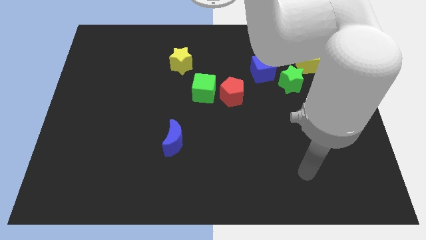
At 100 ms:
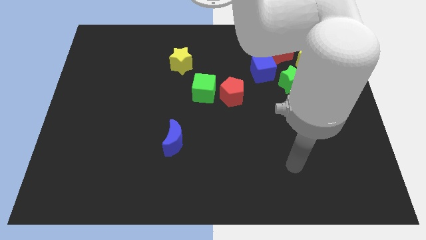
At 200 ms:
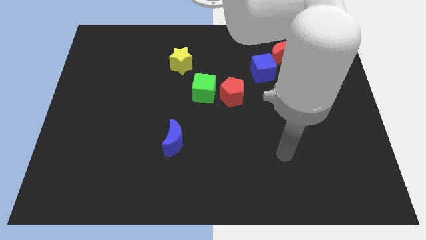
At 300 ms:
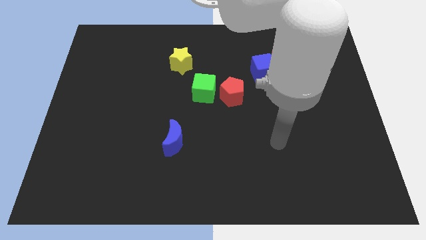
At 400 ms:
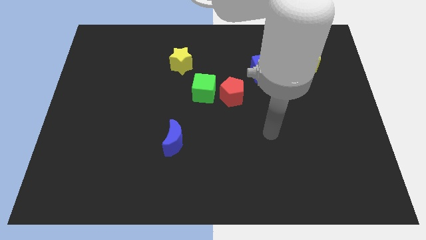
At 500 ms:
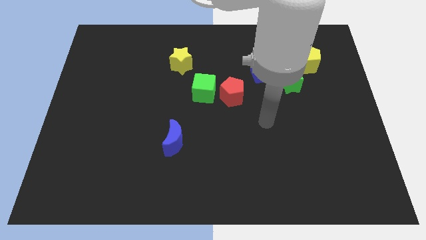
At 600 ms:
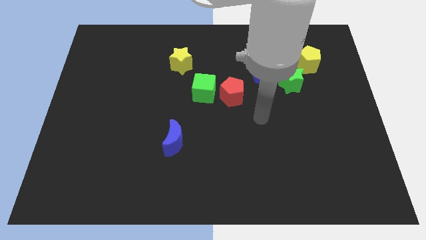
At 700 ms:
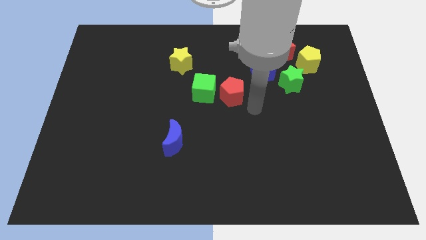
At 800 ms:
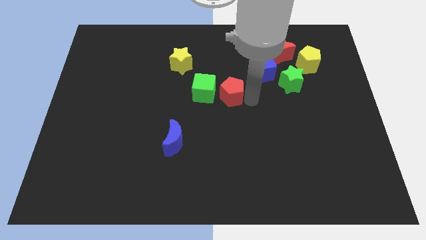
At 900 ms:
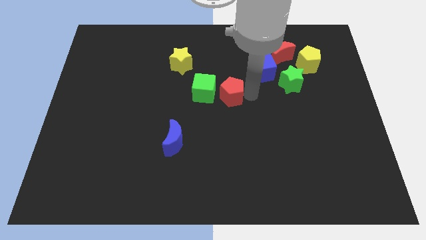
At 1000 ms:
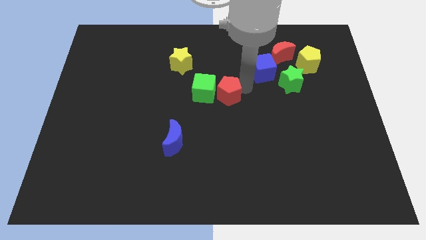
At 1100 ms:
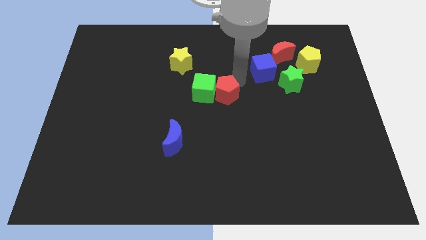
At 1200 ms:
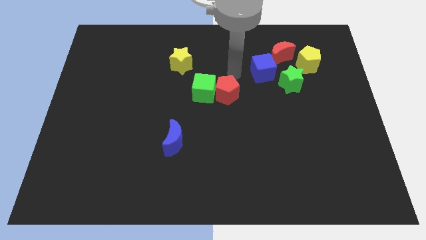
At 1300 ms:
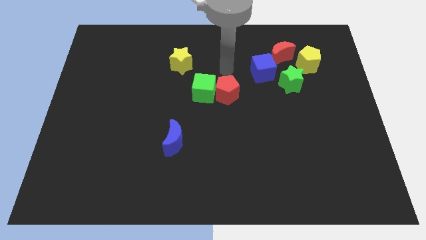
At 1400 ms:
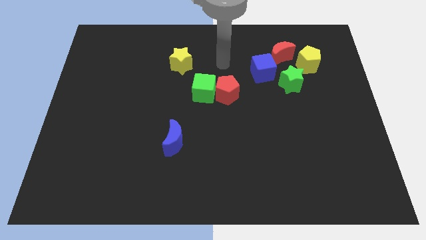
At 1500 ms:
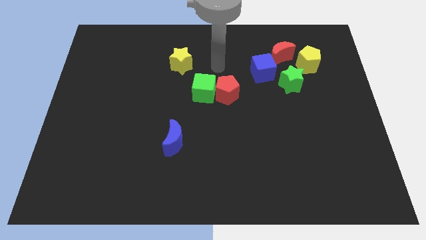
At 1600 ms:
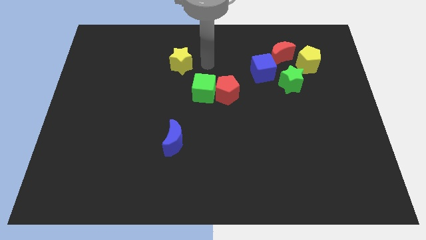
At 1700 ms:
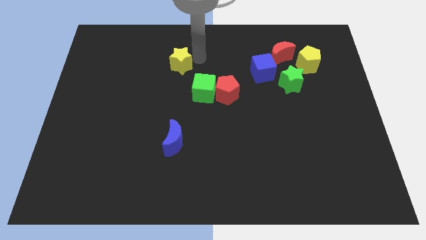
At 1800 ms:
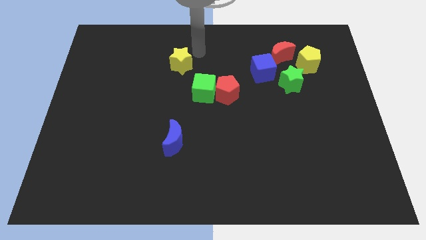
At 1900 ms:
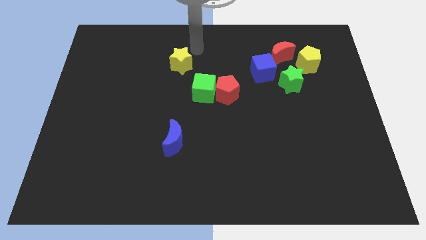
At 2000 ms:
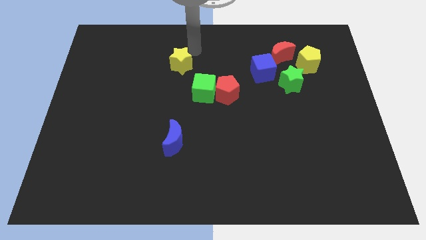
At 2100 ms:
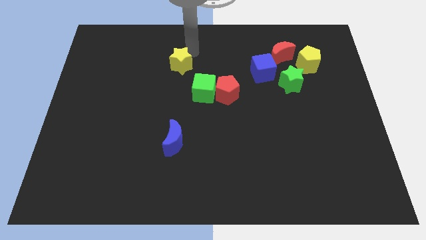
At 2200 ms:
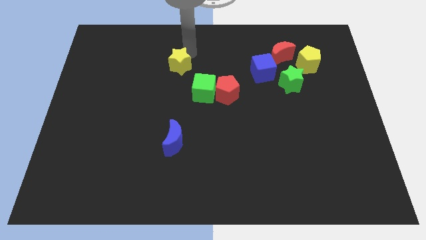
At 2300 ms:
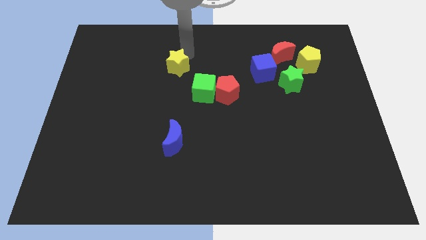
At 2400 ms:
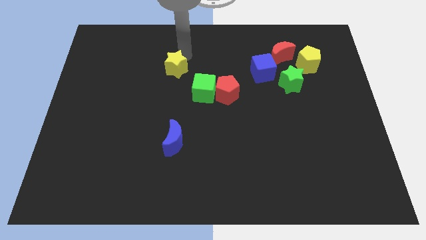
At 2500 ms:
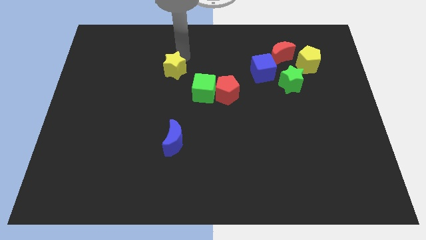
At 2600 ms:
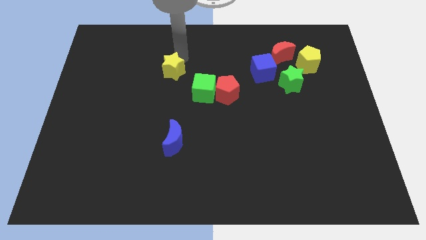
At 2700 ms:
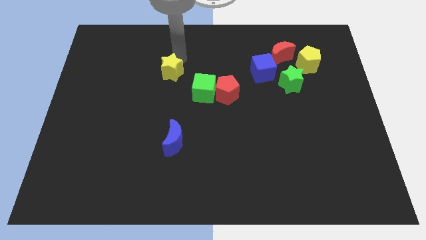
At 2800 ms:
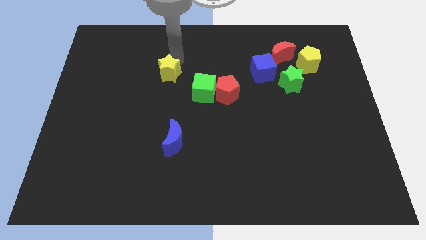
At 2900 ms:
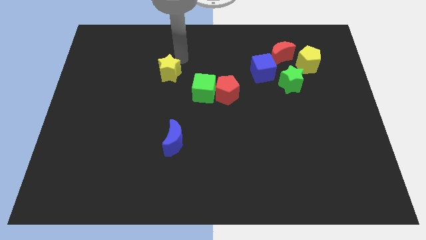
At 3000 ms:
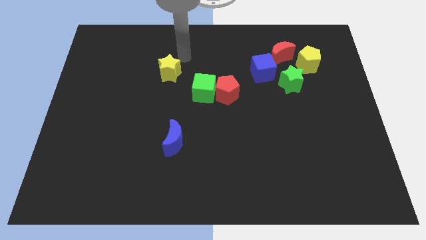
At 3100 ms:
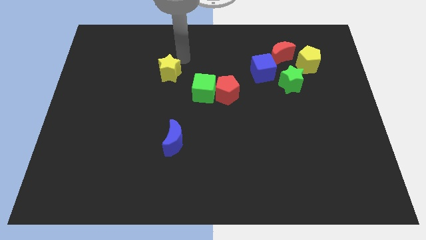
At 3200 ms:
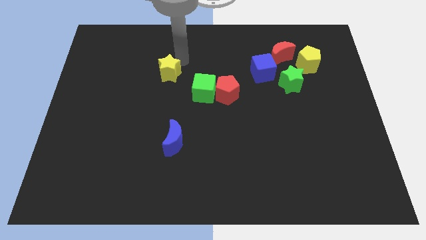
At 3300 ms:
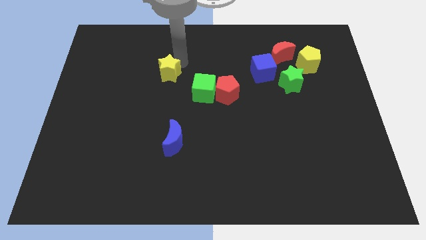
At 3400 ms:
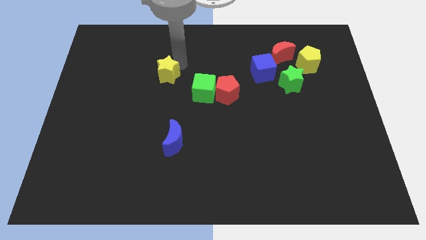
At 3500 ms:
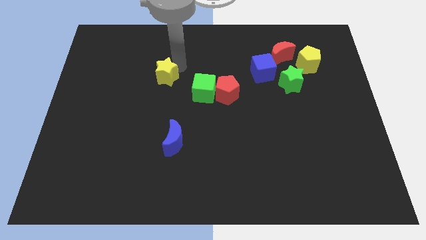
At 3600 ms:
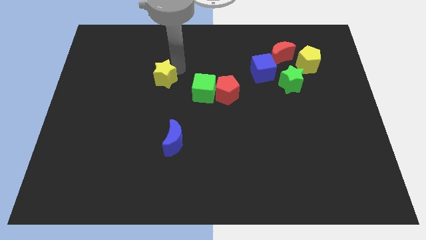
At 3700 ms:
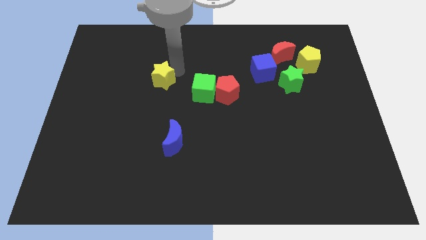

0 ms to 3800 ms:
move the yellow star down and left a little bit

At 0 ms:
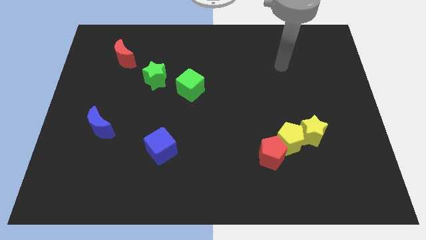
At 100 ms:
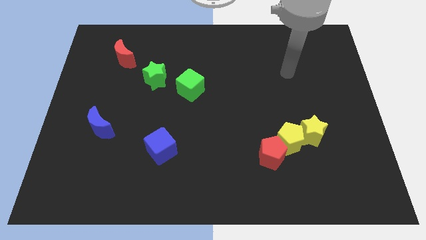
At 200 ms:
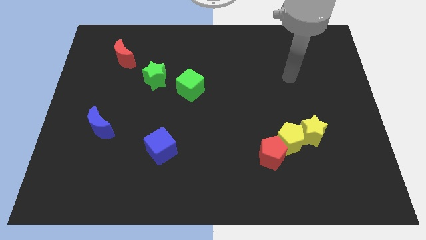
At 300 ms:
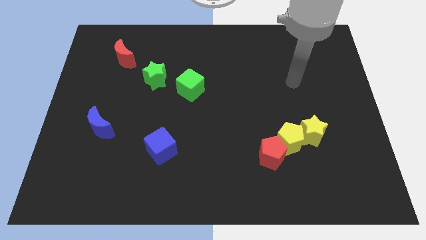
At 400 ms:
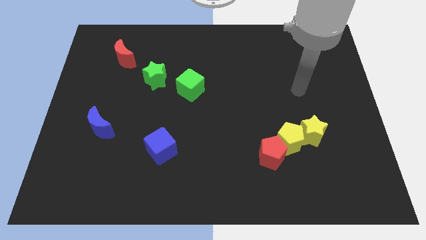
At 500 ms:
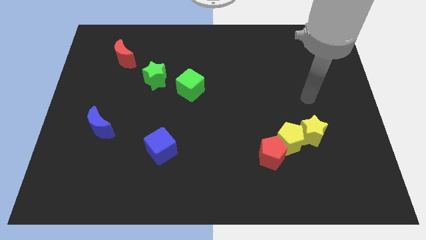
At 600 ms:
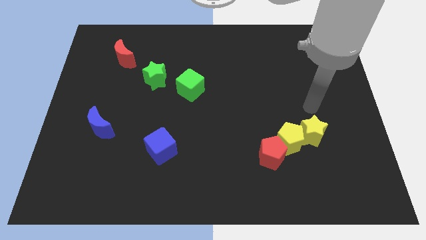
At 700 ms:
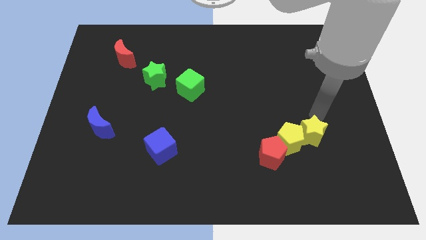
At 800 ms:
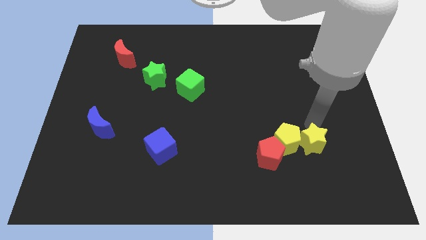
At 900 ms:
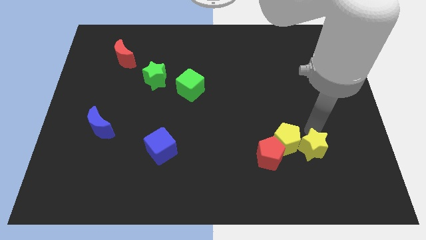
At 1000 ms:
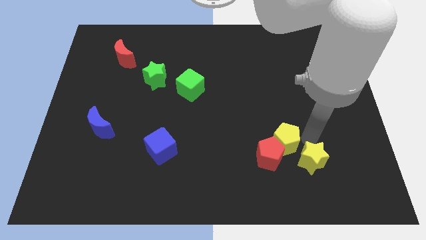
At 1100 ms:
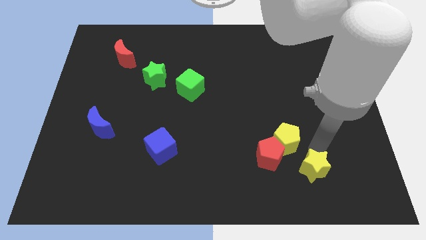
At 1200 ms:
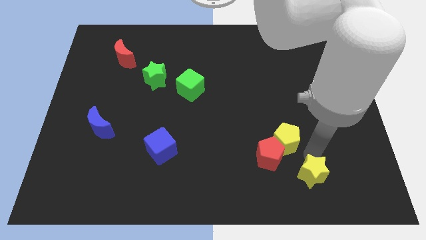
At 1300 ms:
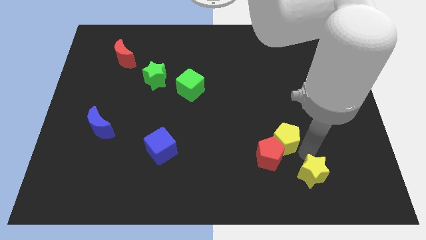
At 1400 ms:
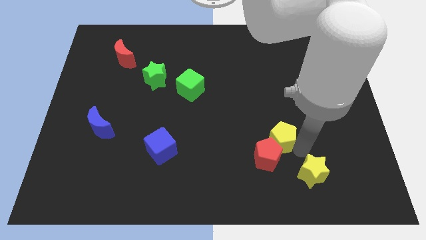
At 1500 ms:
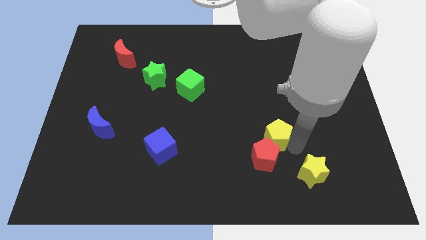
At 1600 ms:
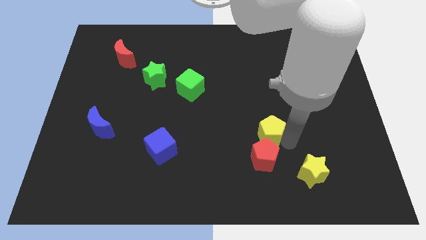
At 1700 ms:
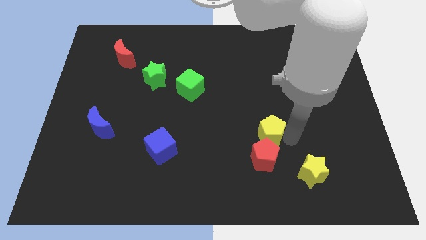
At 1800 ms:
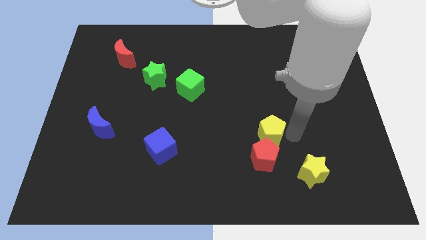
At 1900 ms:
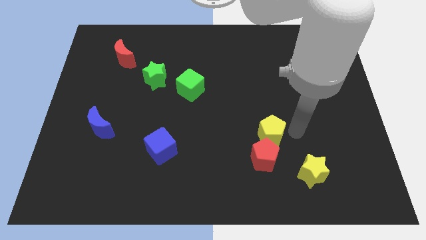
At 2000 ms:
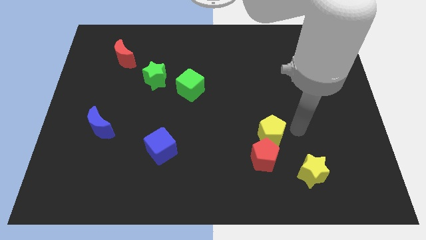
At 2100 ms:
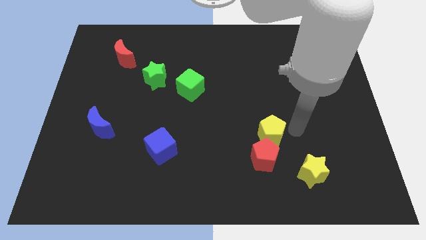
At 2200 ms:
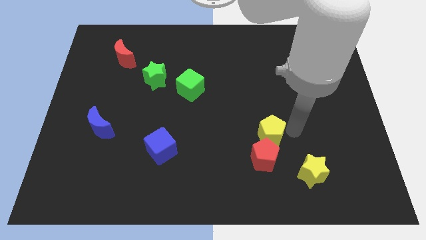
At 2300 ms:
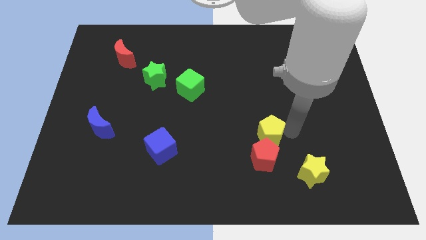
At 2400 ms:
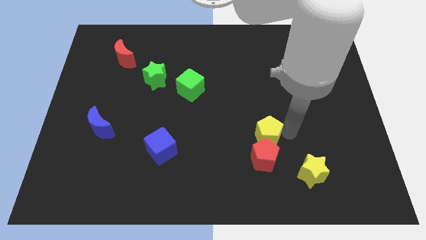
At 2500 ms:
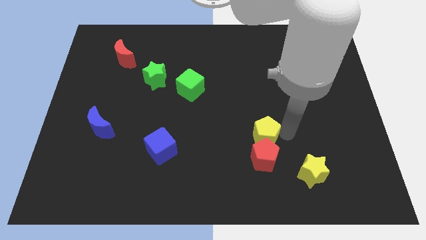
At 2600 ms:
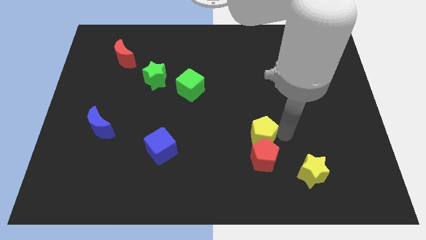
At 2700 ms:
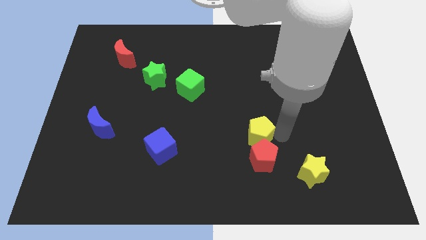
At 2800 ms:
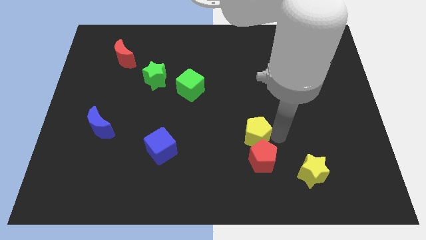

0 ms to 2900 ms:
slide the yellow pentagon to the left slightly

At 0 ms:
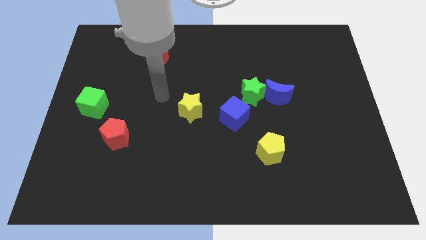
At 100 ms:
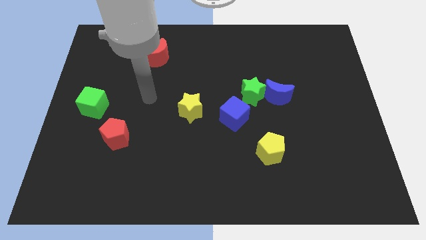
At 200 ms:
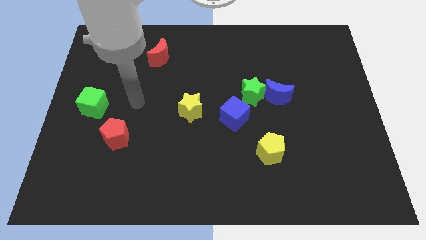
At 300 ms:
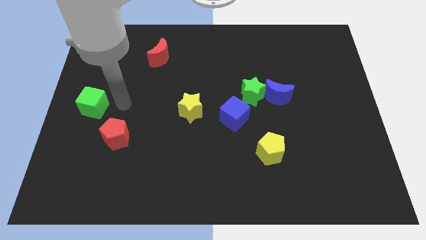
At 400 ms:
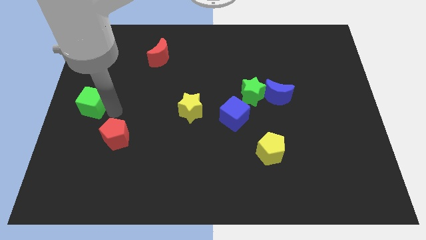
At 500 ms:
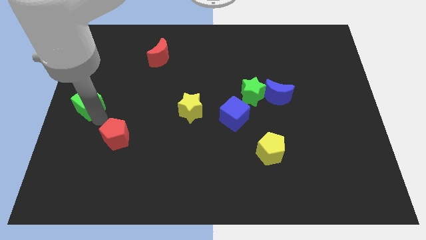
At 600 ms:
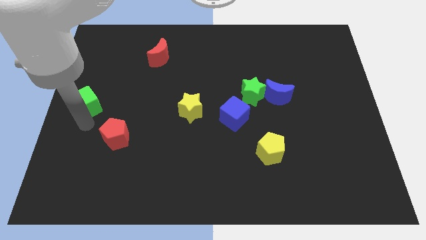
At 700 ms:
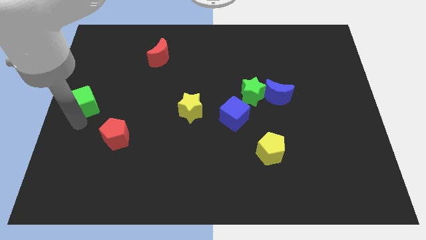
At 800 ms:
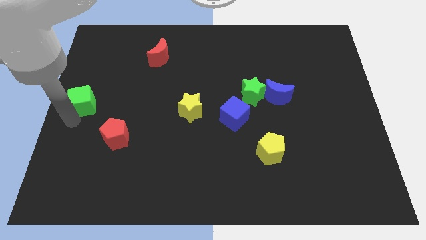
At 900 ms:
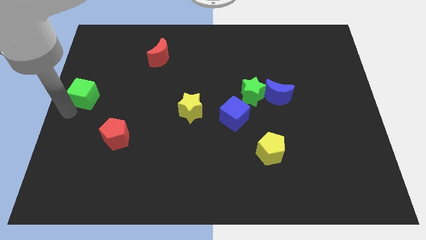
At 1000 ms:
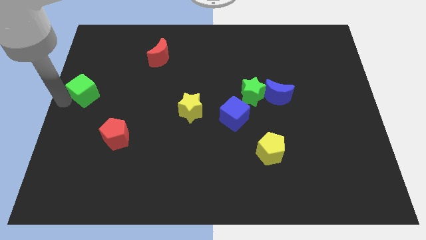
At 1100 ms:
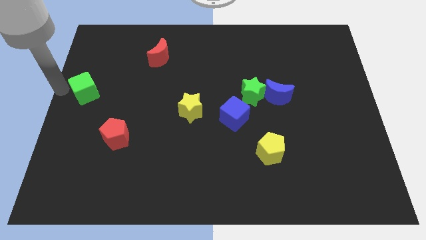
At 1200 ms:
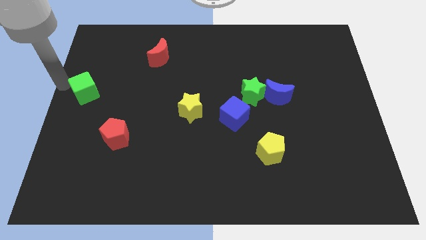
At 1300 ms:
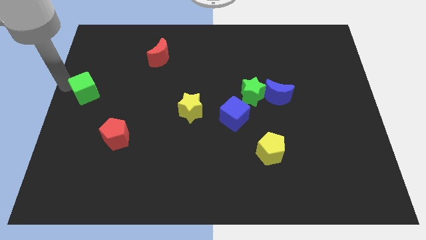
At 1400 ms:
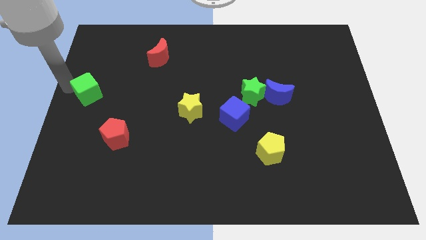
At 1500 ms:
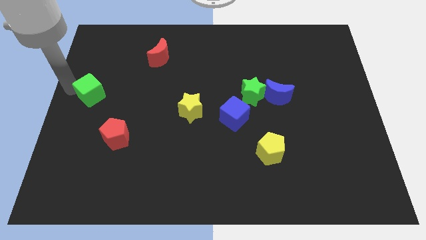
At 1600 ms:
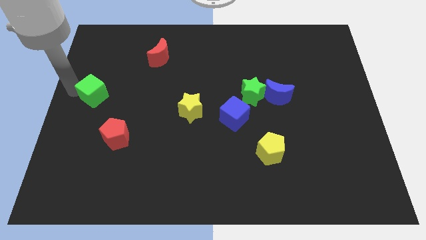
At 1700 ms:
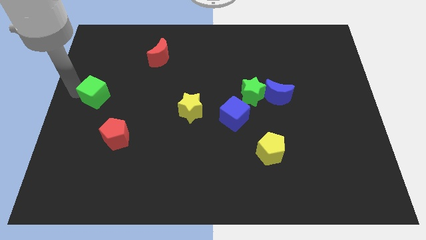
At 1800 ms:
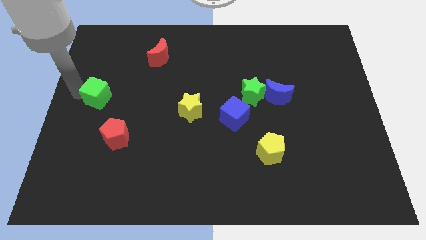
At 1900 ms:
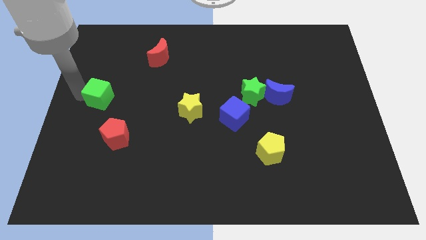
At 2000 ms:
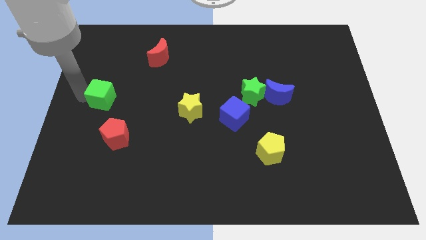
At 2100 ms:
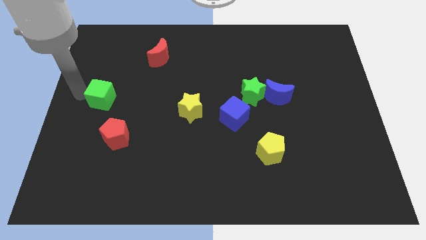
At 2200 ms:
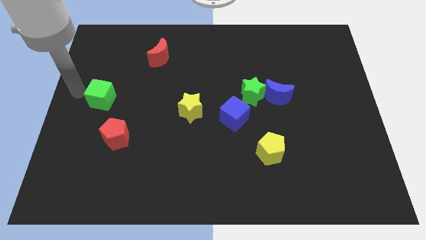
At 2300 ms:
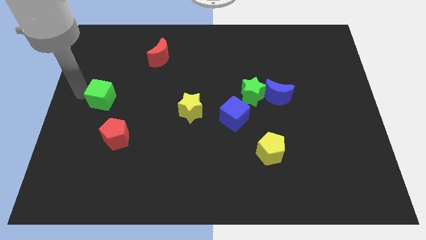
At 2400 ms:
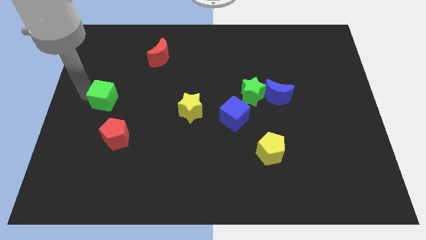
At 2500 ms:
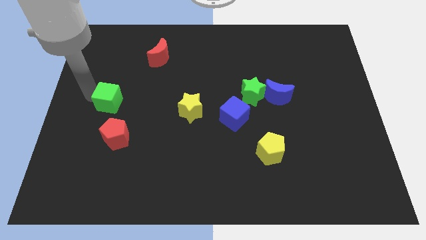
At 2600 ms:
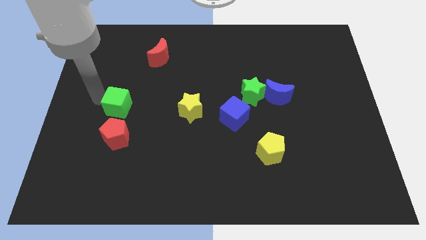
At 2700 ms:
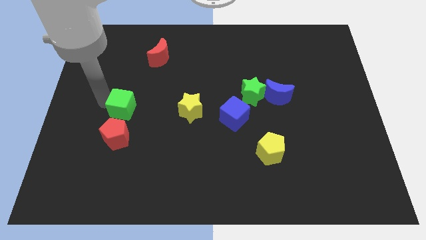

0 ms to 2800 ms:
slightly move the green cube right
